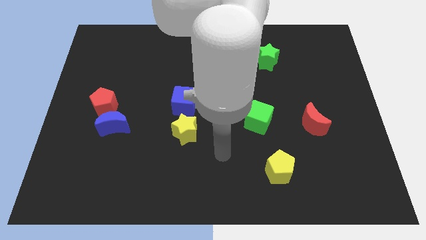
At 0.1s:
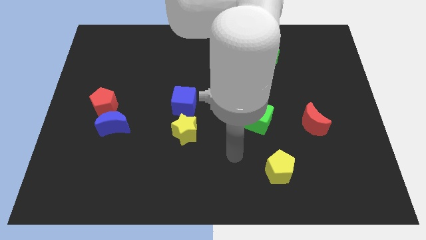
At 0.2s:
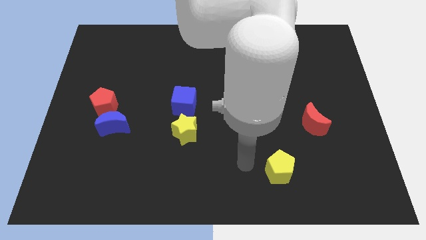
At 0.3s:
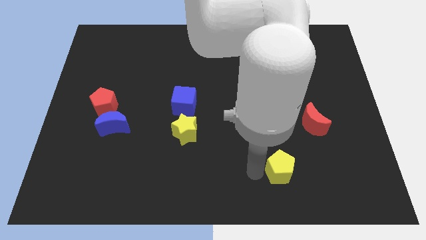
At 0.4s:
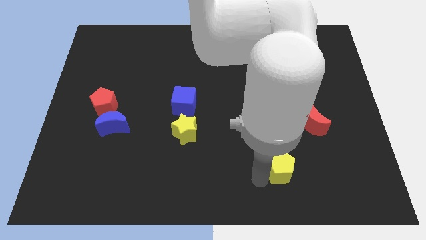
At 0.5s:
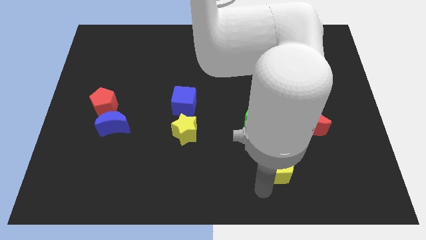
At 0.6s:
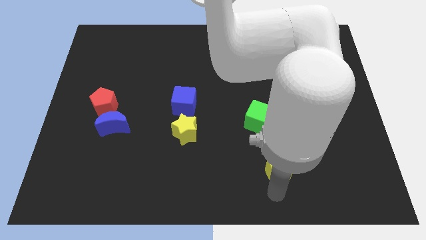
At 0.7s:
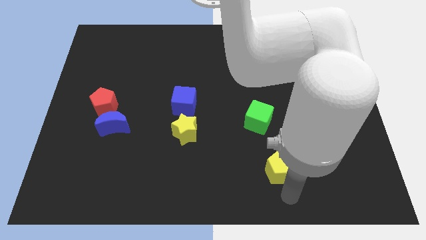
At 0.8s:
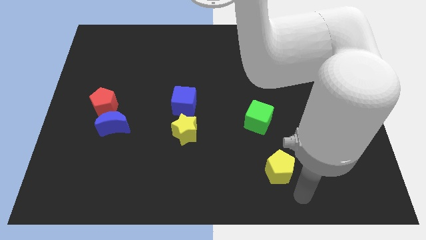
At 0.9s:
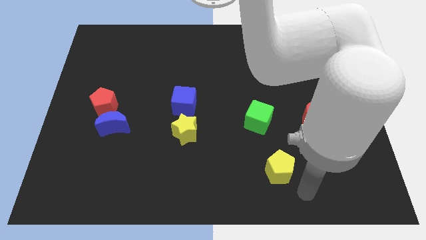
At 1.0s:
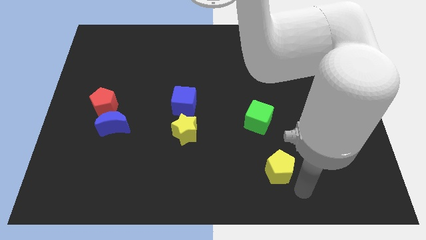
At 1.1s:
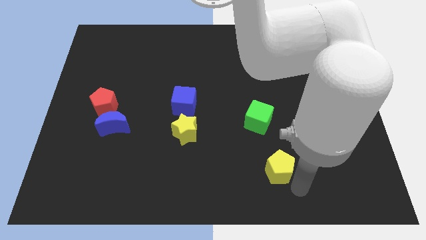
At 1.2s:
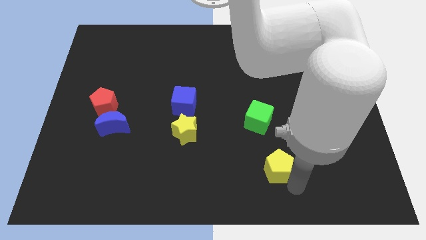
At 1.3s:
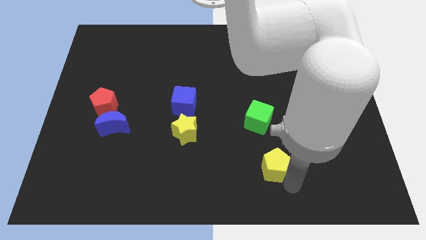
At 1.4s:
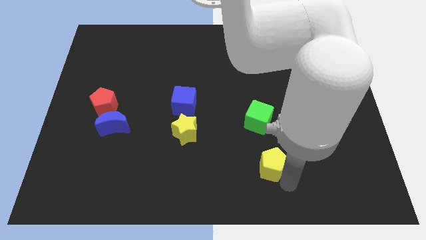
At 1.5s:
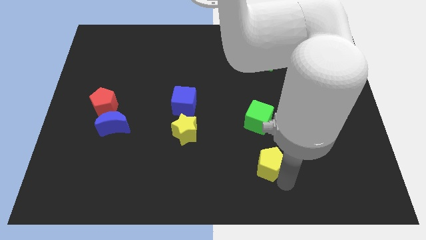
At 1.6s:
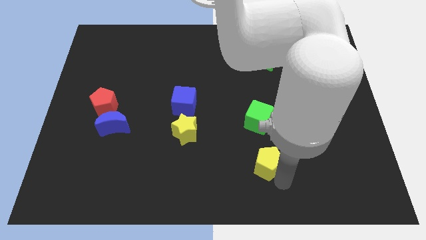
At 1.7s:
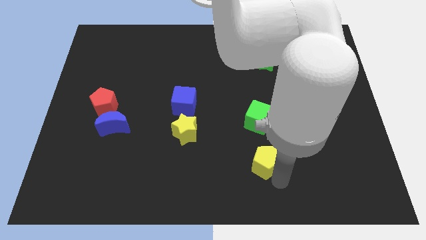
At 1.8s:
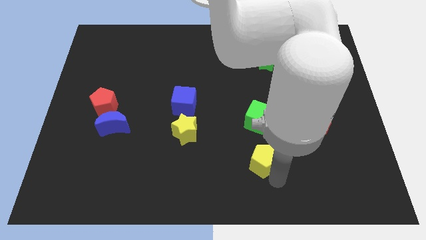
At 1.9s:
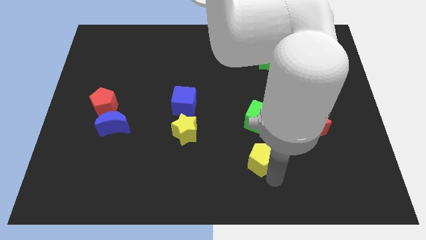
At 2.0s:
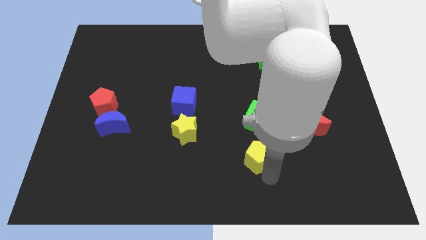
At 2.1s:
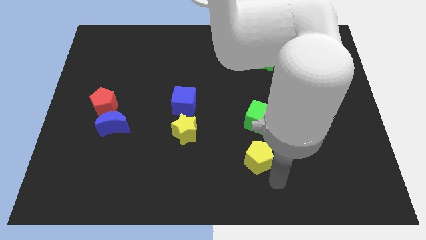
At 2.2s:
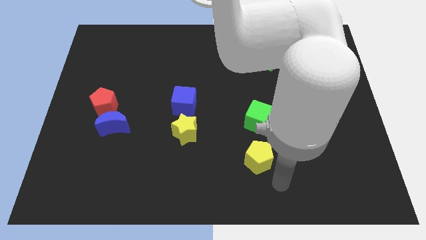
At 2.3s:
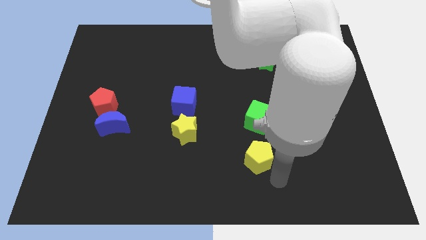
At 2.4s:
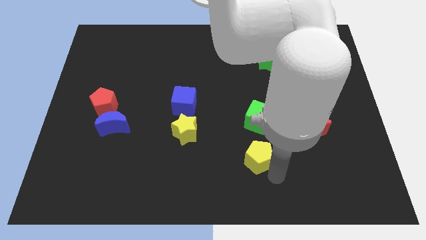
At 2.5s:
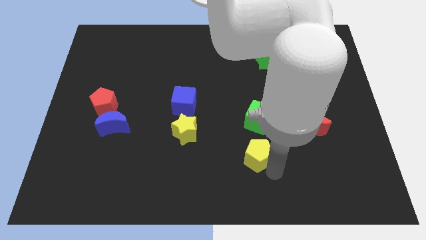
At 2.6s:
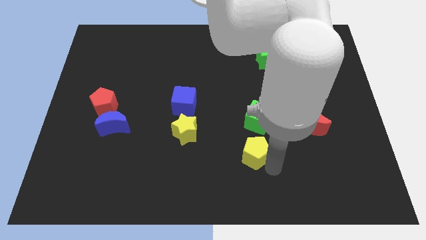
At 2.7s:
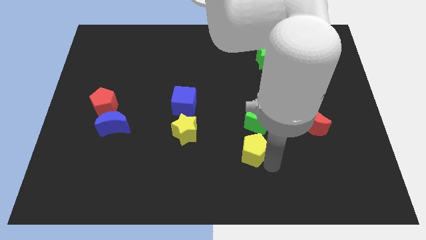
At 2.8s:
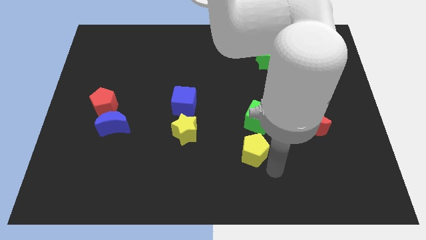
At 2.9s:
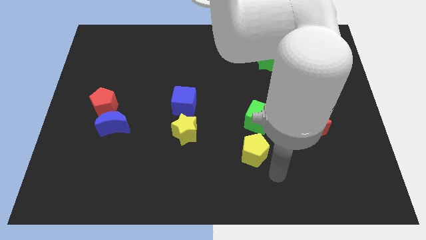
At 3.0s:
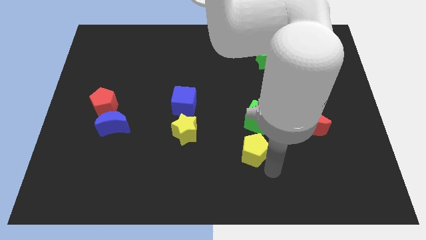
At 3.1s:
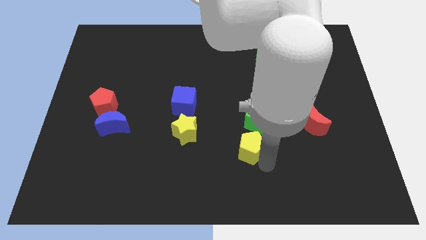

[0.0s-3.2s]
slightly push the yellow pentagon upwards and left

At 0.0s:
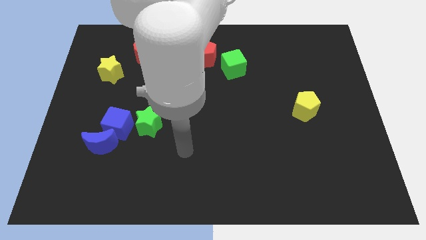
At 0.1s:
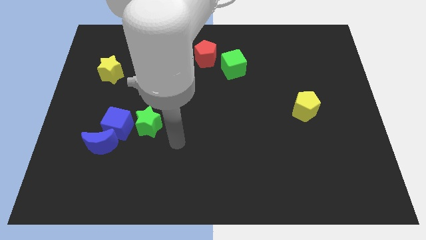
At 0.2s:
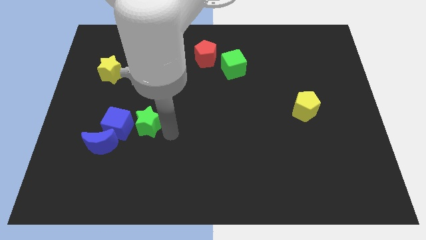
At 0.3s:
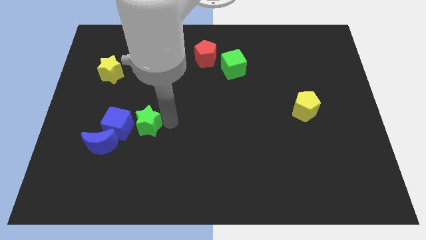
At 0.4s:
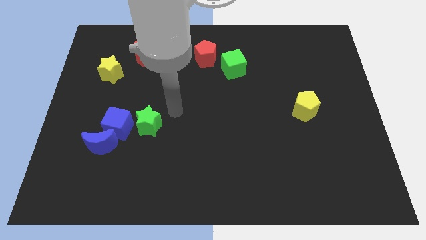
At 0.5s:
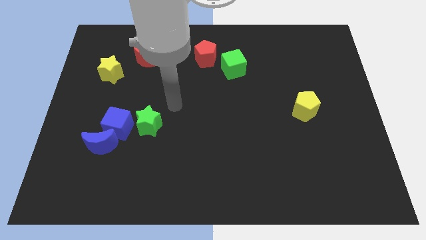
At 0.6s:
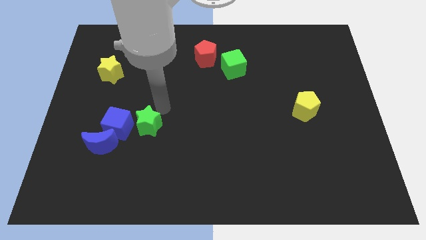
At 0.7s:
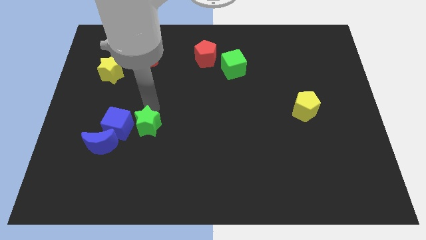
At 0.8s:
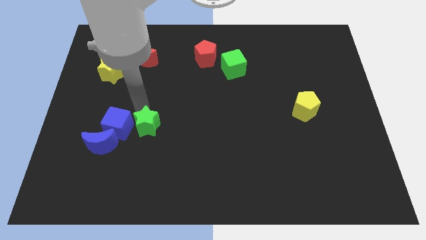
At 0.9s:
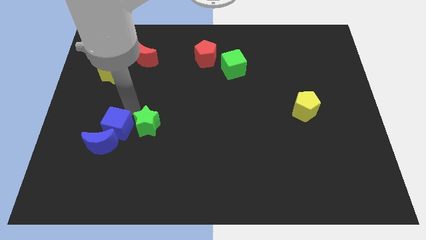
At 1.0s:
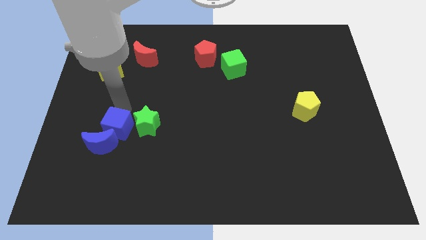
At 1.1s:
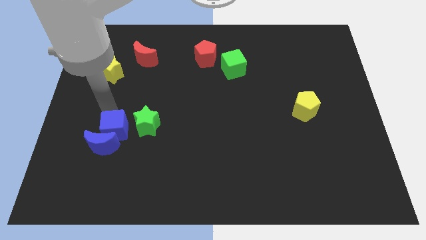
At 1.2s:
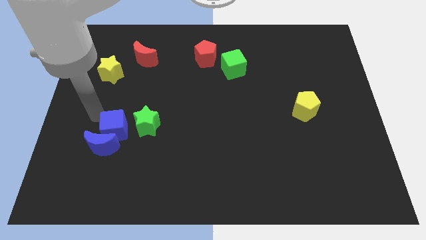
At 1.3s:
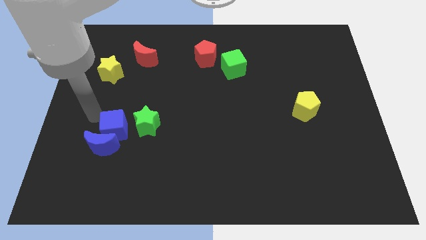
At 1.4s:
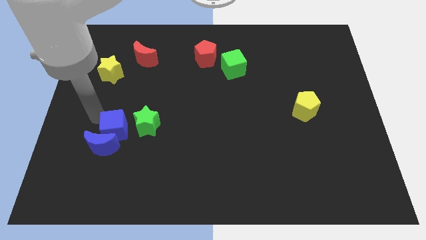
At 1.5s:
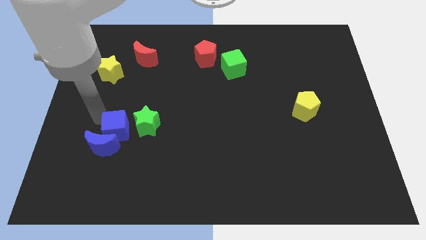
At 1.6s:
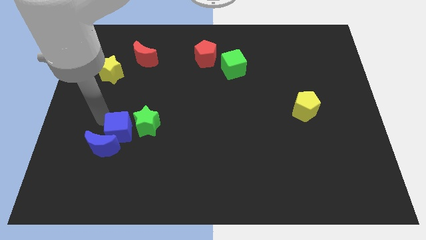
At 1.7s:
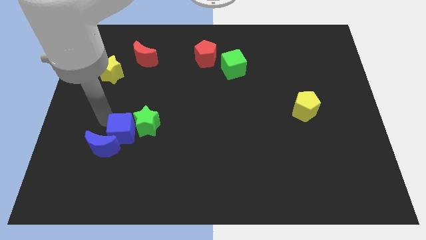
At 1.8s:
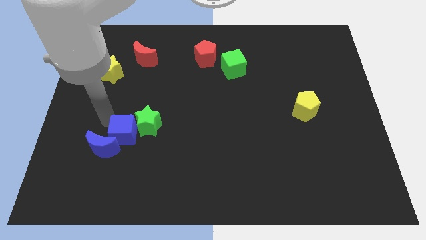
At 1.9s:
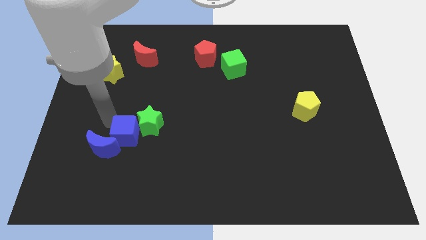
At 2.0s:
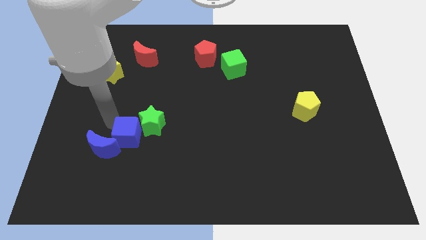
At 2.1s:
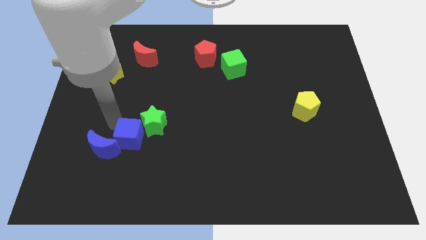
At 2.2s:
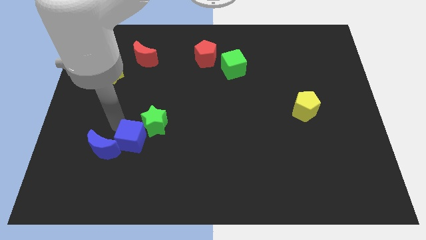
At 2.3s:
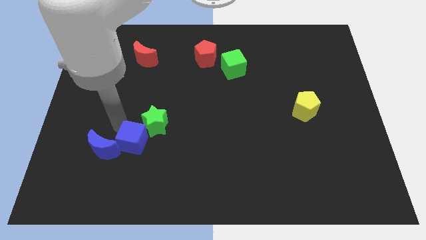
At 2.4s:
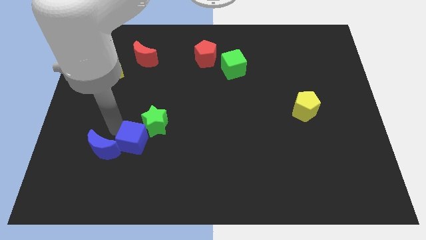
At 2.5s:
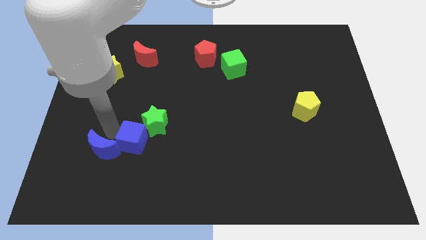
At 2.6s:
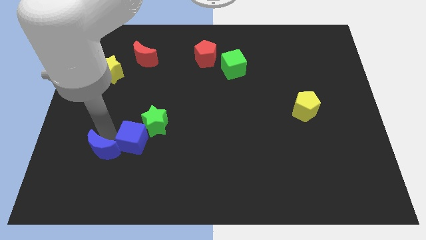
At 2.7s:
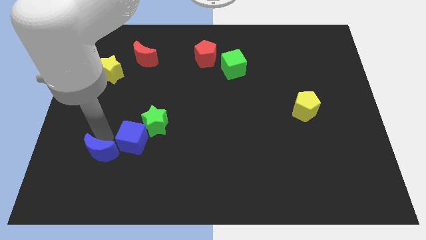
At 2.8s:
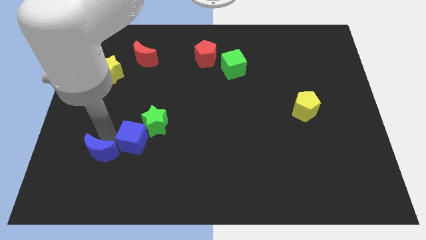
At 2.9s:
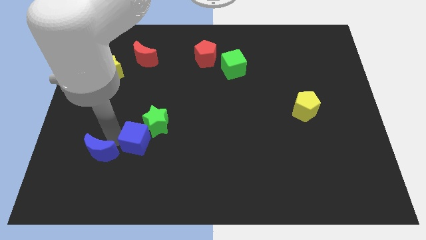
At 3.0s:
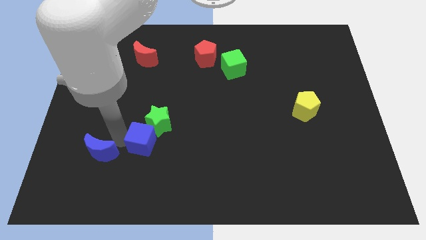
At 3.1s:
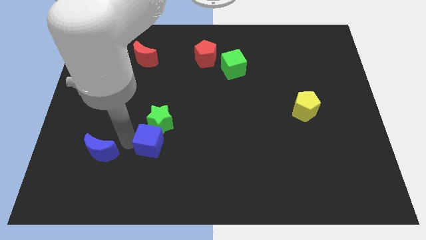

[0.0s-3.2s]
move the blue cube slightly to the right

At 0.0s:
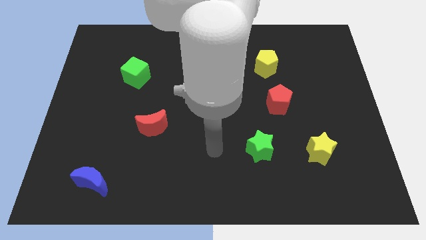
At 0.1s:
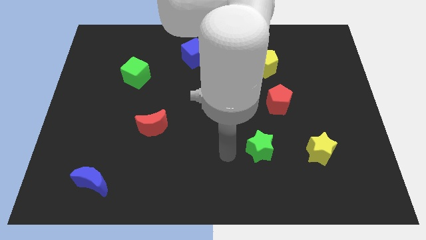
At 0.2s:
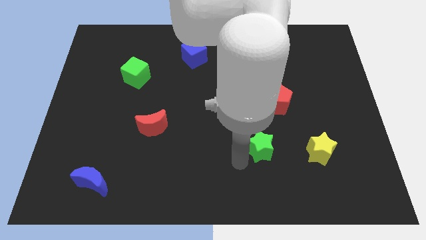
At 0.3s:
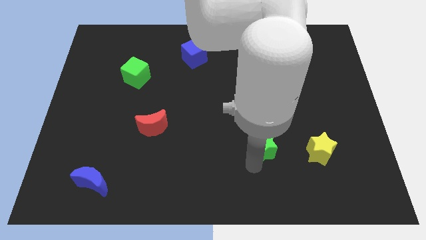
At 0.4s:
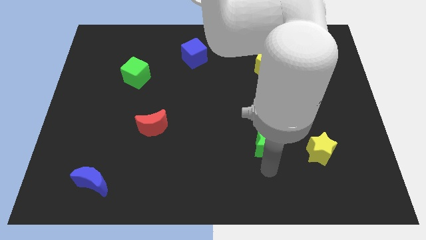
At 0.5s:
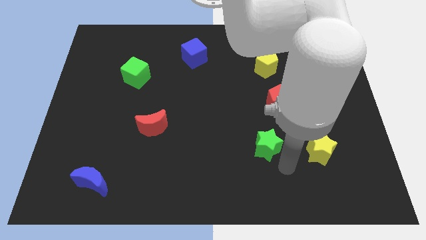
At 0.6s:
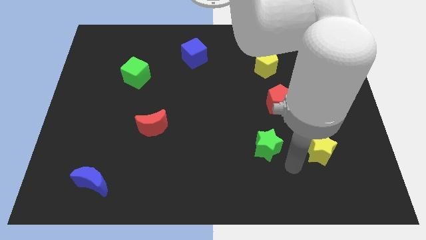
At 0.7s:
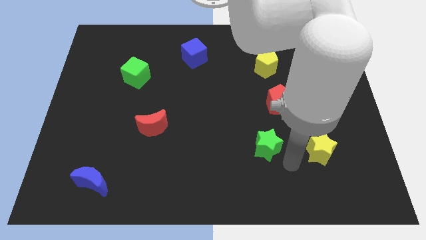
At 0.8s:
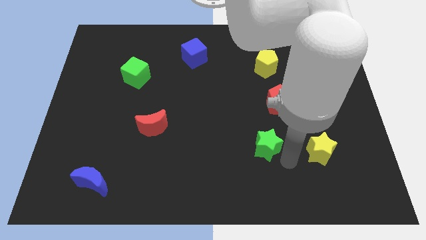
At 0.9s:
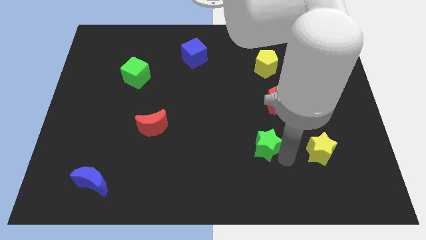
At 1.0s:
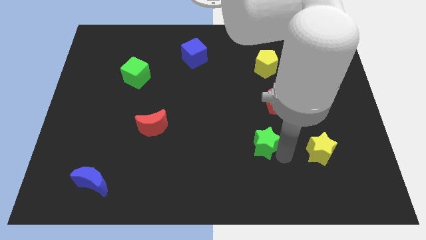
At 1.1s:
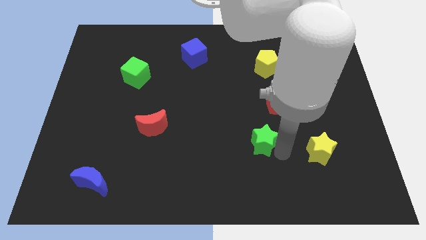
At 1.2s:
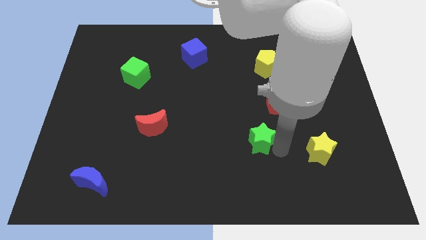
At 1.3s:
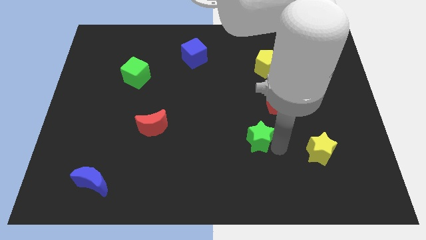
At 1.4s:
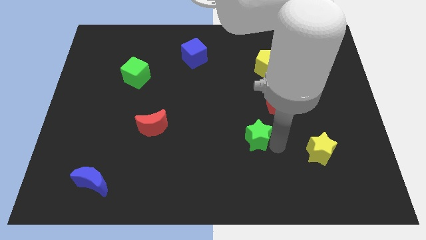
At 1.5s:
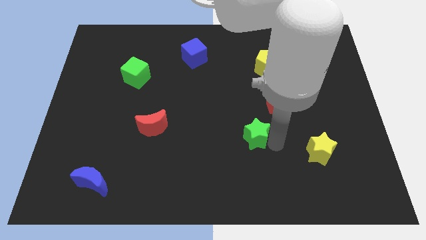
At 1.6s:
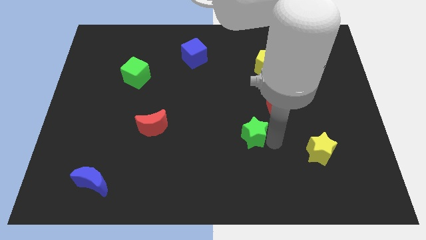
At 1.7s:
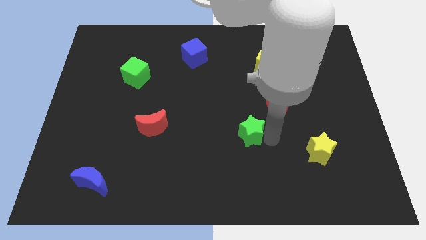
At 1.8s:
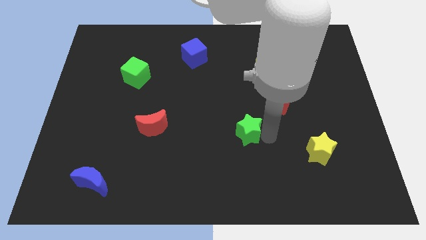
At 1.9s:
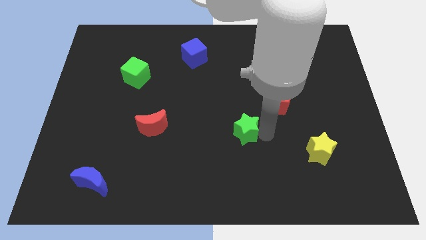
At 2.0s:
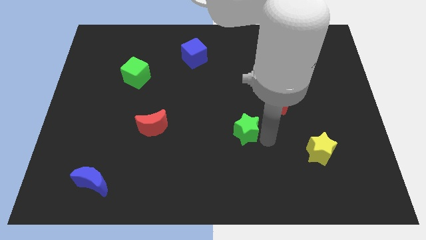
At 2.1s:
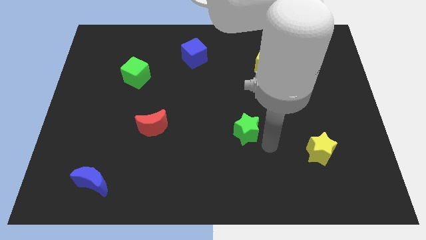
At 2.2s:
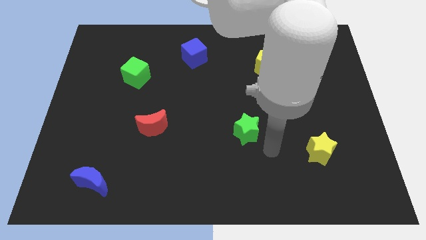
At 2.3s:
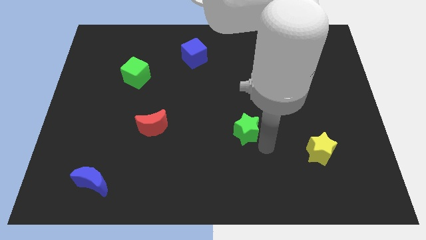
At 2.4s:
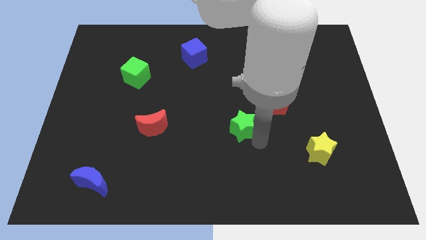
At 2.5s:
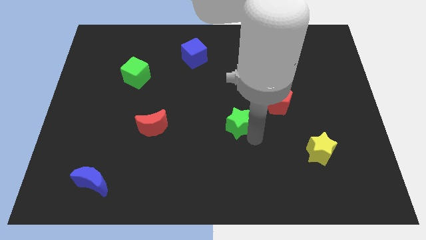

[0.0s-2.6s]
push the green star somewhat upwards and to the left diagonally
